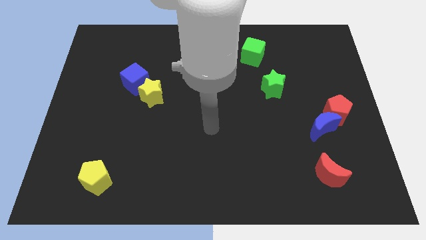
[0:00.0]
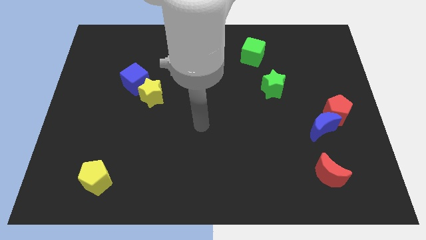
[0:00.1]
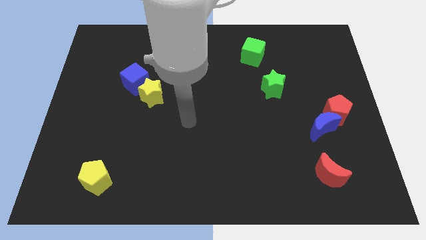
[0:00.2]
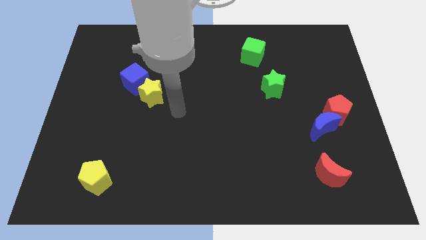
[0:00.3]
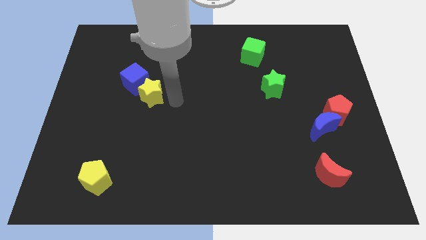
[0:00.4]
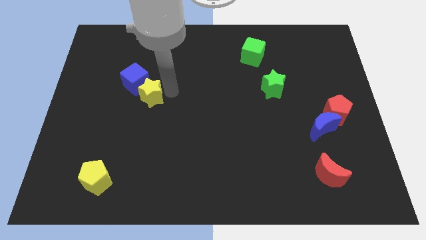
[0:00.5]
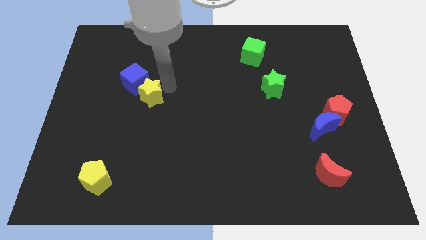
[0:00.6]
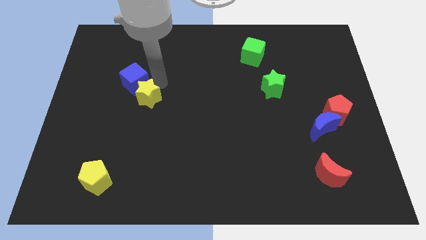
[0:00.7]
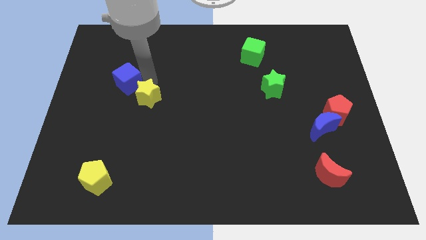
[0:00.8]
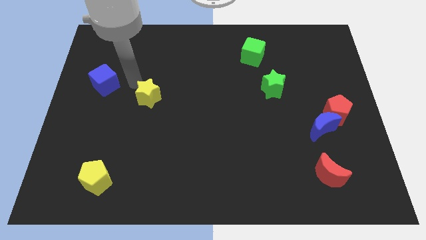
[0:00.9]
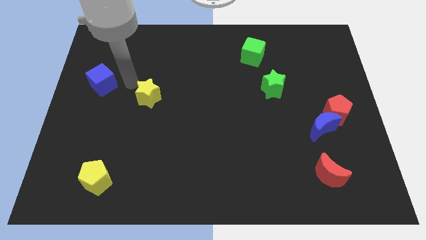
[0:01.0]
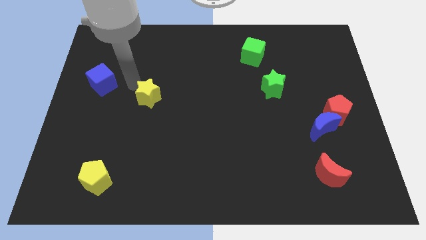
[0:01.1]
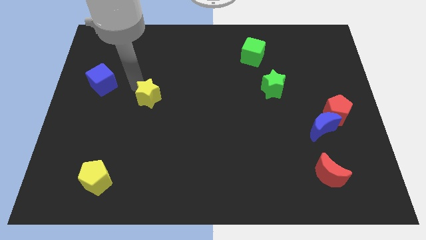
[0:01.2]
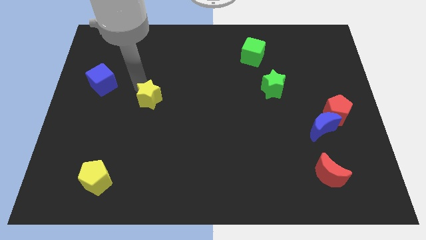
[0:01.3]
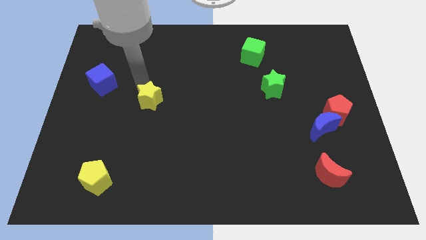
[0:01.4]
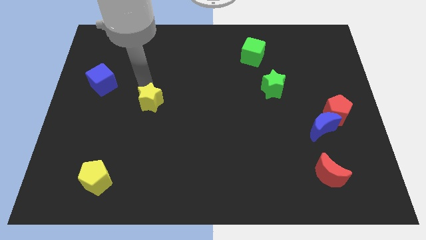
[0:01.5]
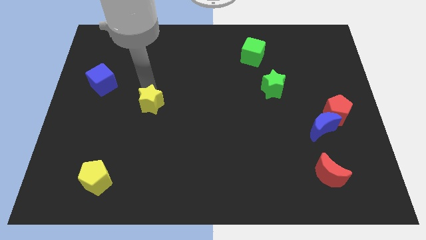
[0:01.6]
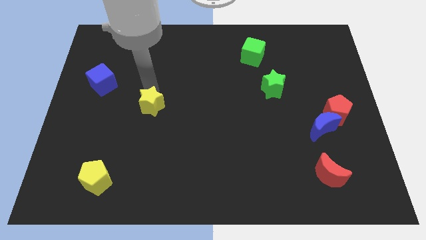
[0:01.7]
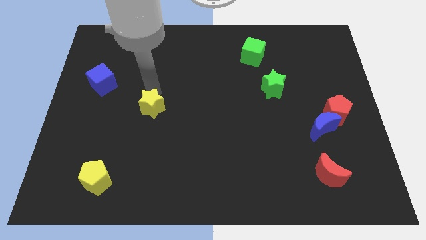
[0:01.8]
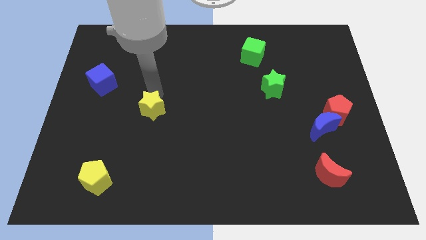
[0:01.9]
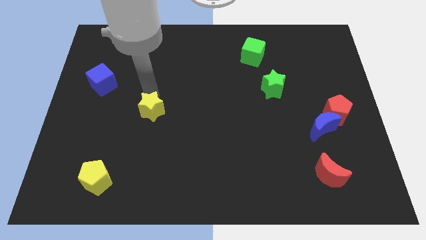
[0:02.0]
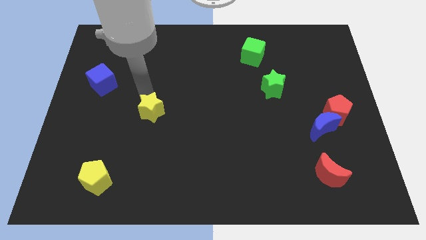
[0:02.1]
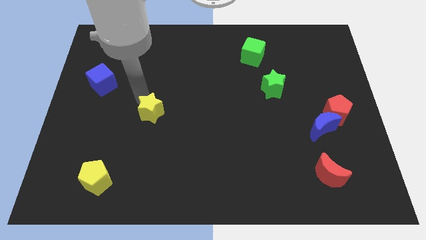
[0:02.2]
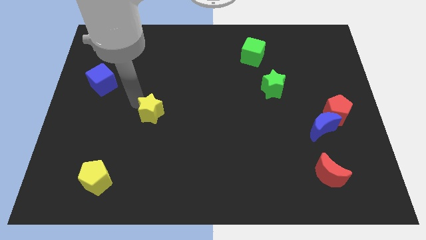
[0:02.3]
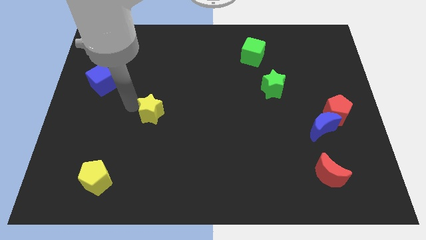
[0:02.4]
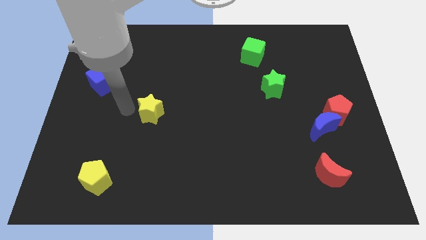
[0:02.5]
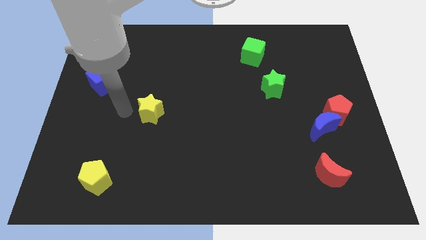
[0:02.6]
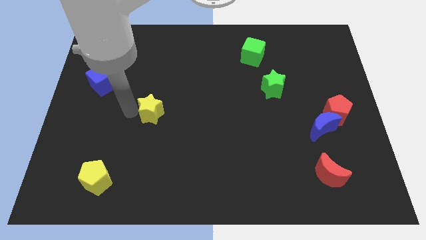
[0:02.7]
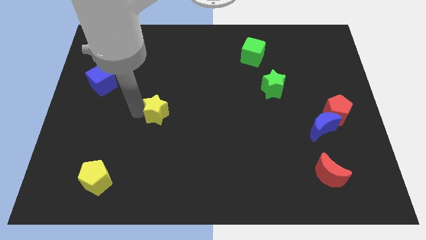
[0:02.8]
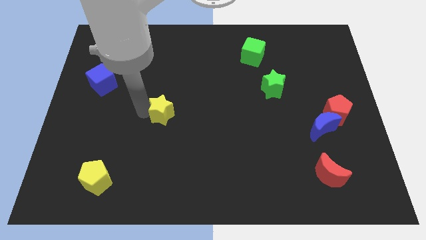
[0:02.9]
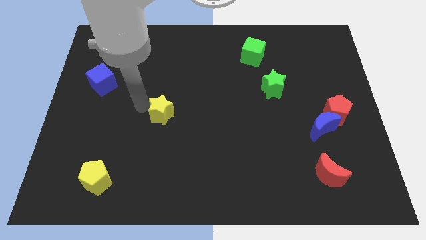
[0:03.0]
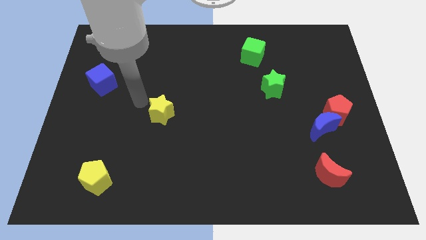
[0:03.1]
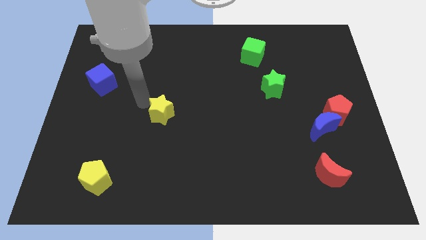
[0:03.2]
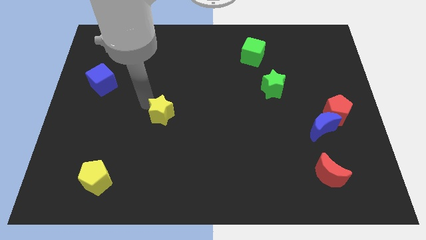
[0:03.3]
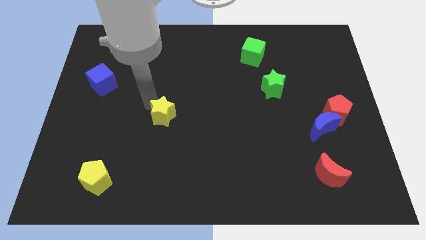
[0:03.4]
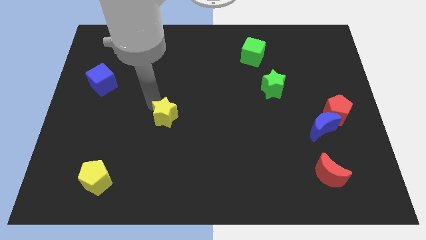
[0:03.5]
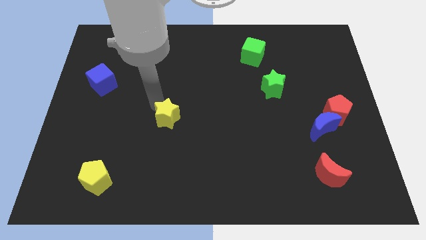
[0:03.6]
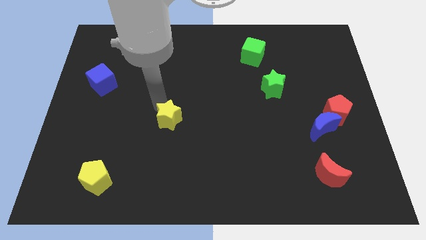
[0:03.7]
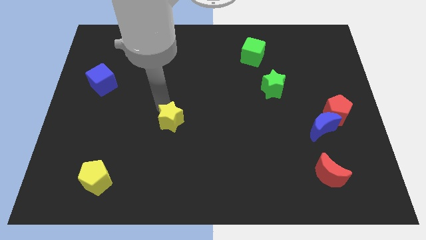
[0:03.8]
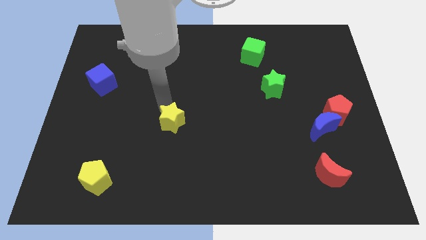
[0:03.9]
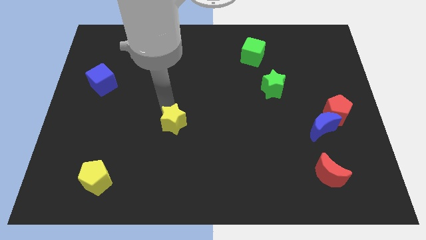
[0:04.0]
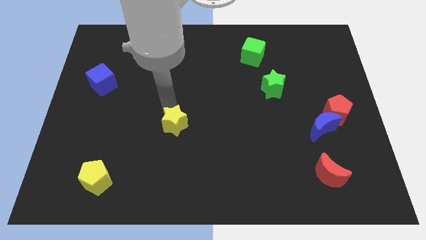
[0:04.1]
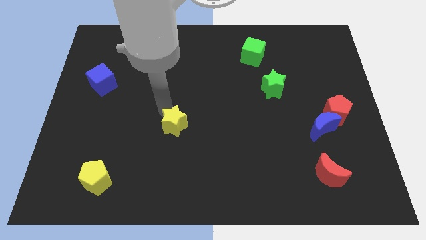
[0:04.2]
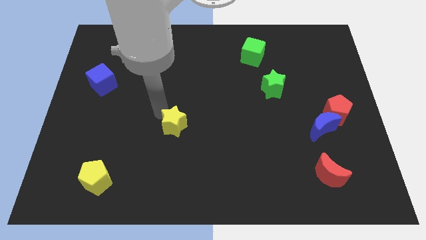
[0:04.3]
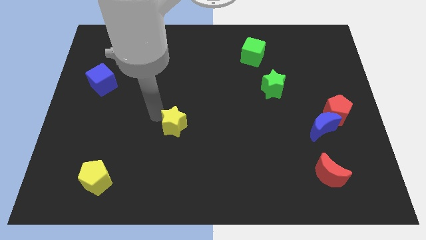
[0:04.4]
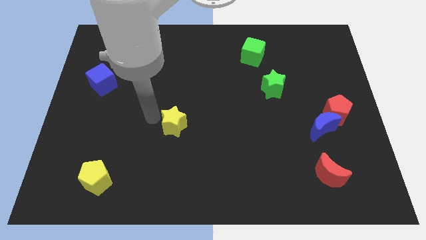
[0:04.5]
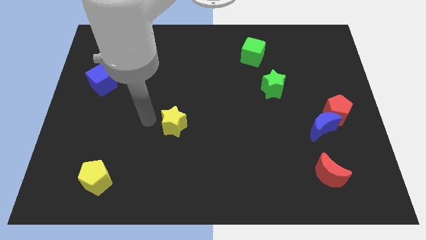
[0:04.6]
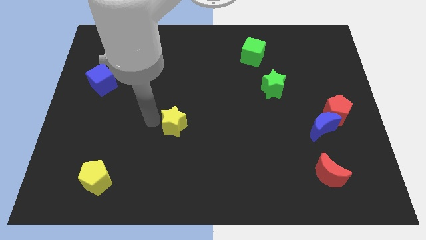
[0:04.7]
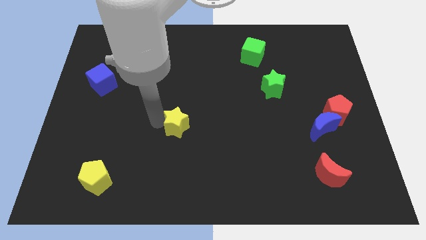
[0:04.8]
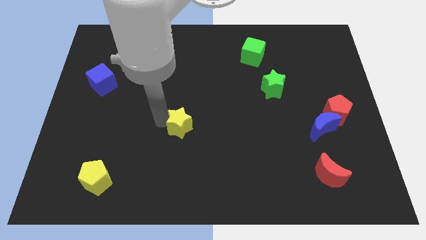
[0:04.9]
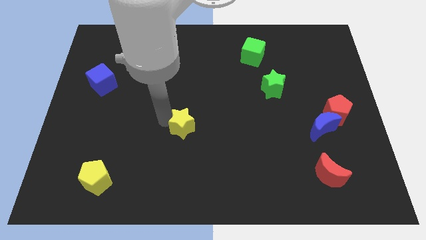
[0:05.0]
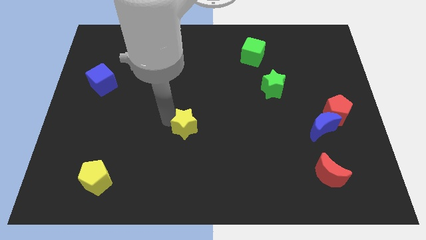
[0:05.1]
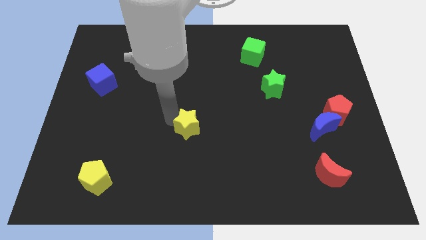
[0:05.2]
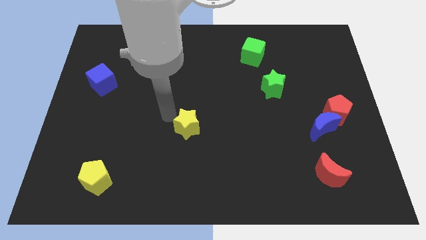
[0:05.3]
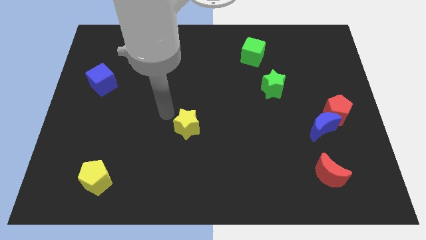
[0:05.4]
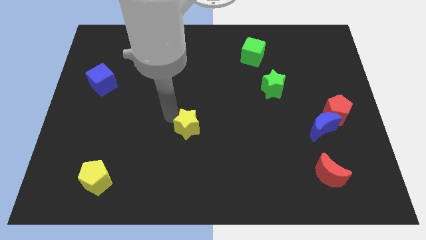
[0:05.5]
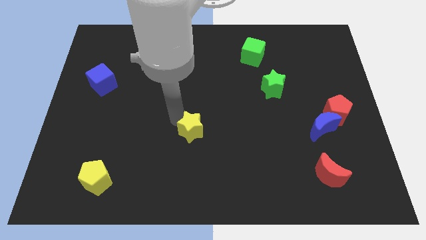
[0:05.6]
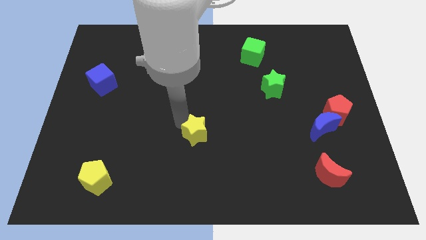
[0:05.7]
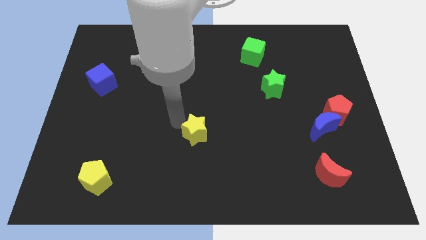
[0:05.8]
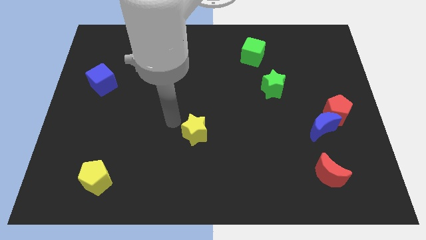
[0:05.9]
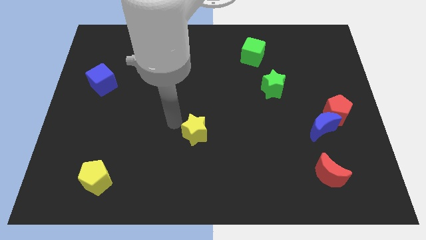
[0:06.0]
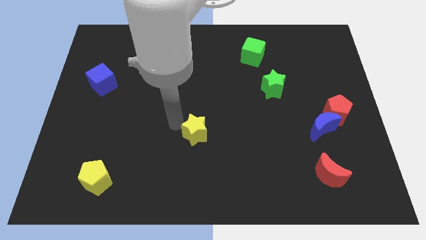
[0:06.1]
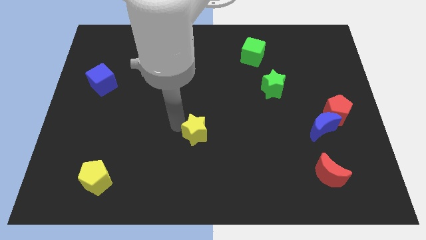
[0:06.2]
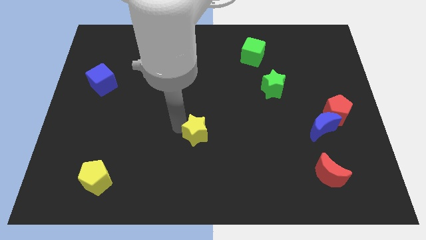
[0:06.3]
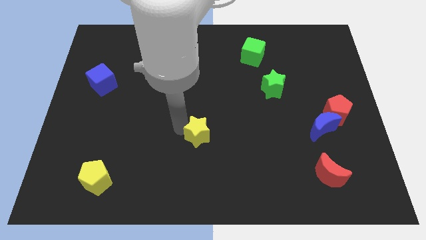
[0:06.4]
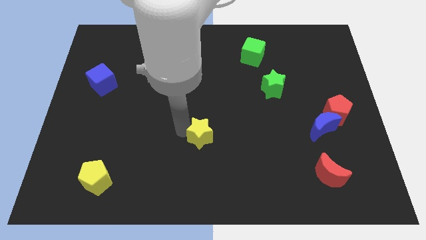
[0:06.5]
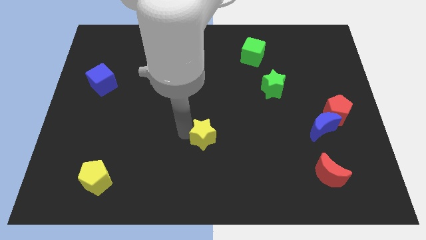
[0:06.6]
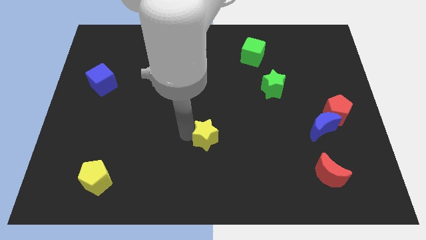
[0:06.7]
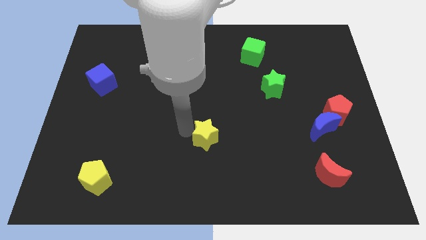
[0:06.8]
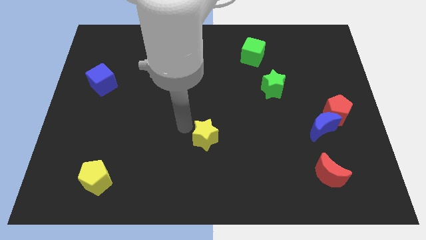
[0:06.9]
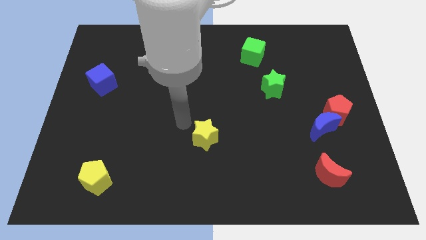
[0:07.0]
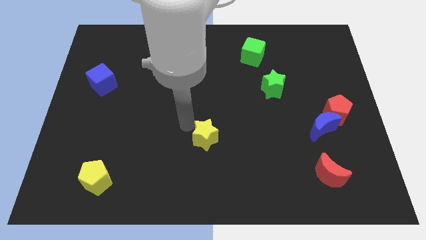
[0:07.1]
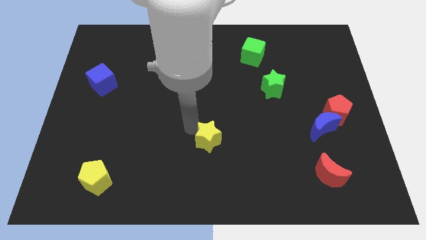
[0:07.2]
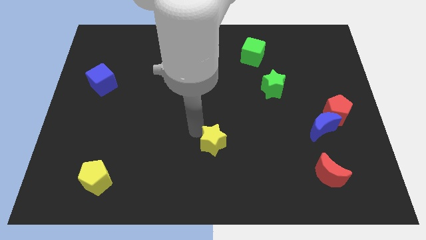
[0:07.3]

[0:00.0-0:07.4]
push the yellow star down and then to the right

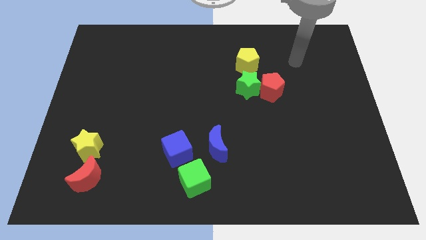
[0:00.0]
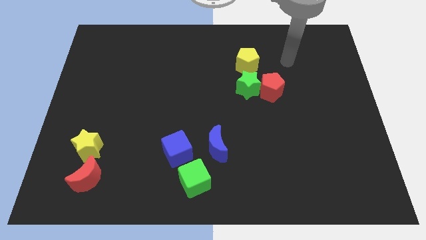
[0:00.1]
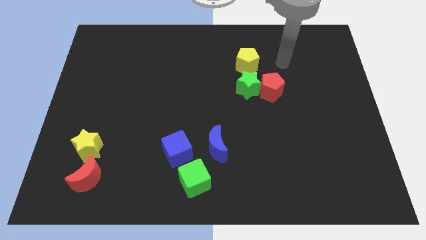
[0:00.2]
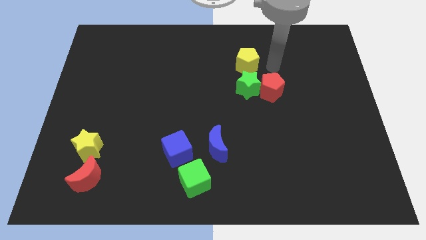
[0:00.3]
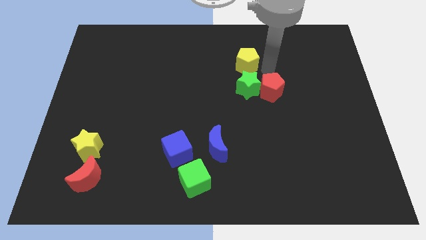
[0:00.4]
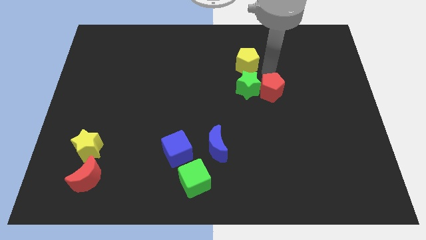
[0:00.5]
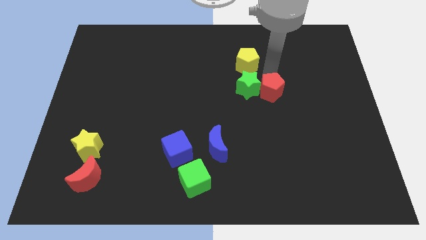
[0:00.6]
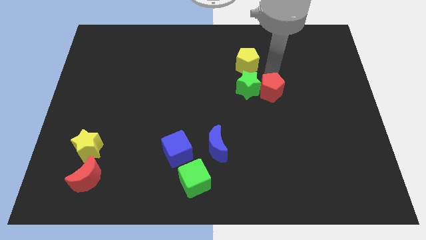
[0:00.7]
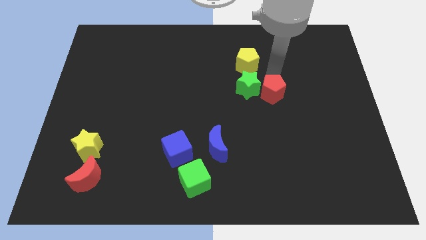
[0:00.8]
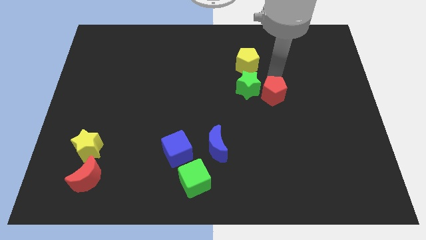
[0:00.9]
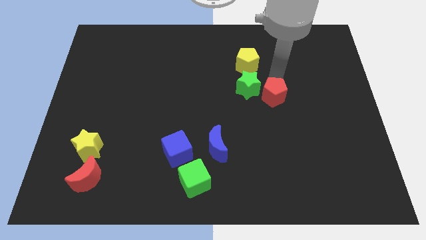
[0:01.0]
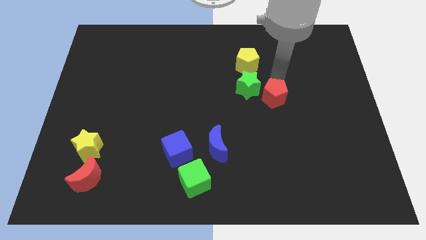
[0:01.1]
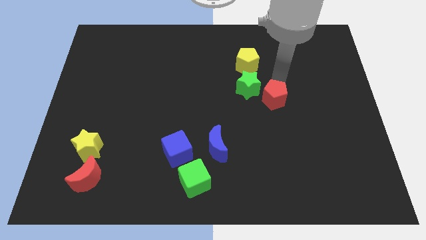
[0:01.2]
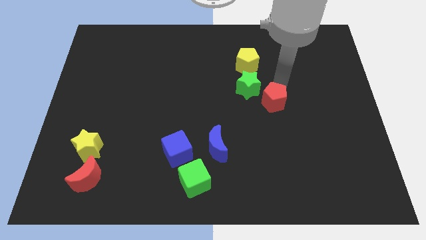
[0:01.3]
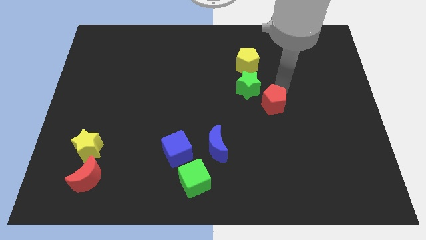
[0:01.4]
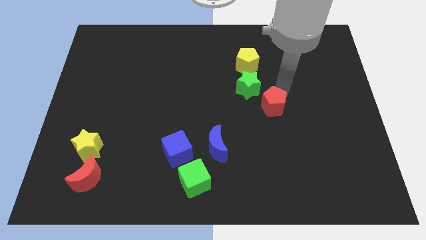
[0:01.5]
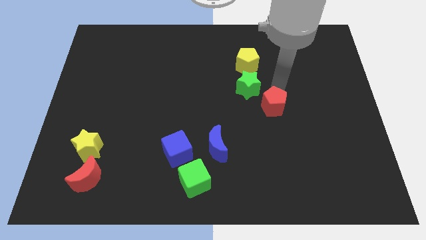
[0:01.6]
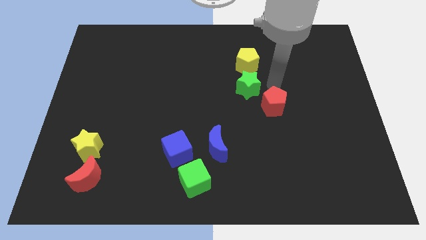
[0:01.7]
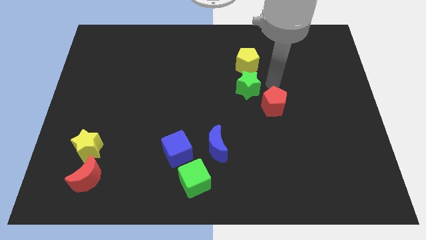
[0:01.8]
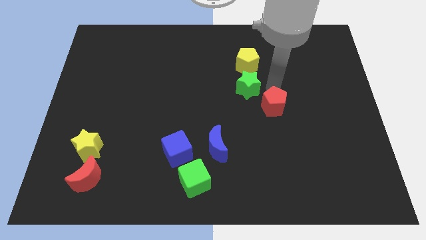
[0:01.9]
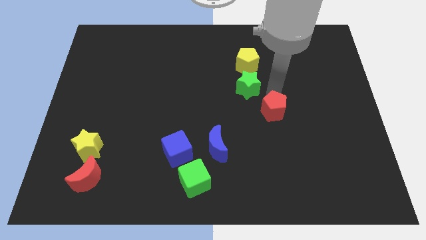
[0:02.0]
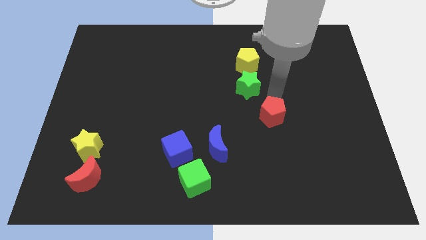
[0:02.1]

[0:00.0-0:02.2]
slide the red pentagon downwards a bit
